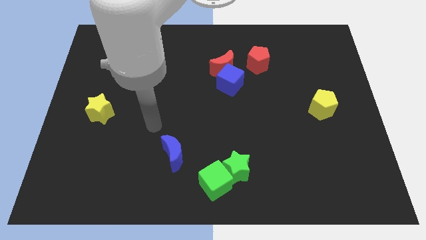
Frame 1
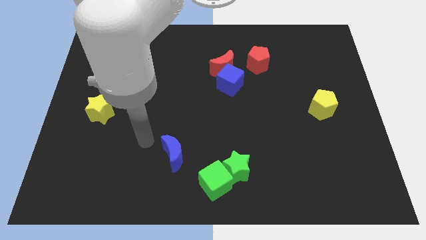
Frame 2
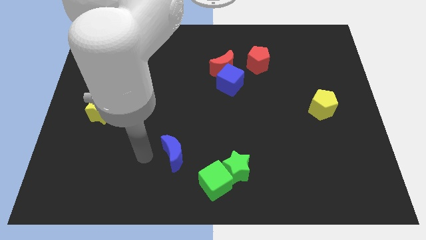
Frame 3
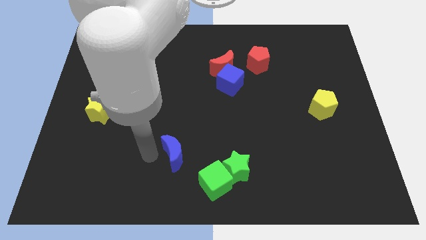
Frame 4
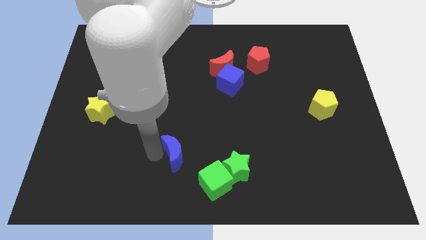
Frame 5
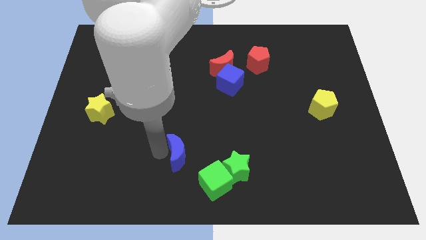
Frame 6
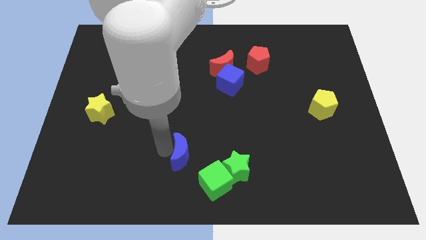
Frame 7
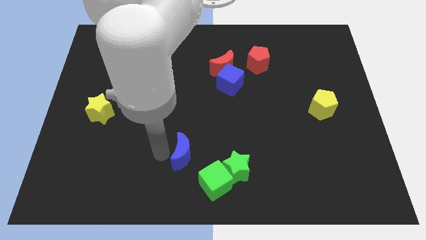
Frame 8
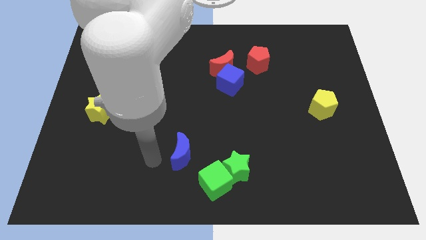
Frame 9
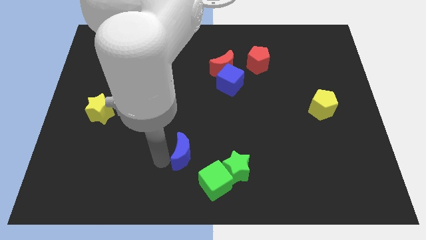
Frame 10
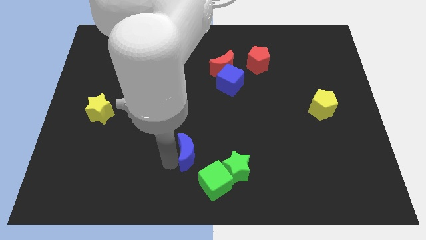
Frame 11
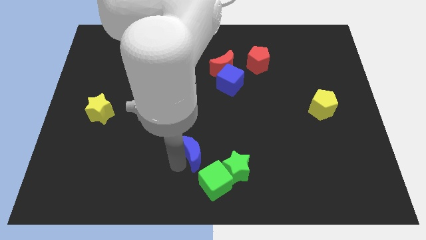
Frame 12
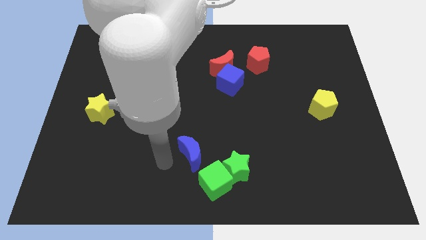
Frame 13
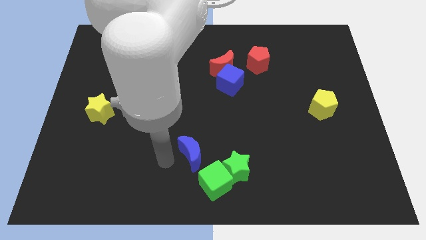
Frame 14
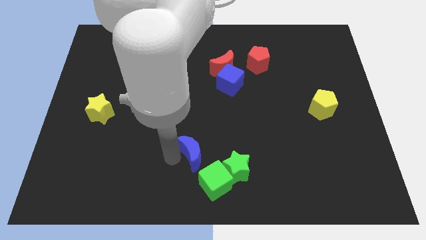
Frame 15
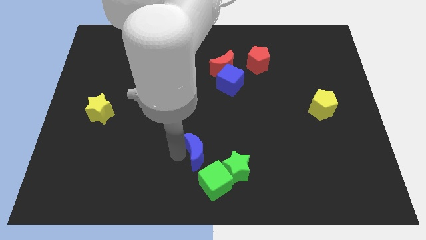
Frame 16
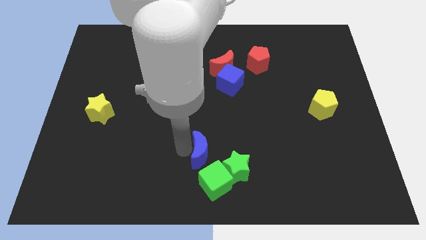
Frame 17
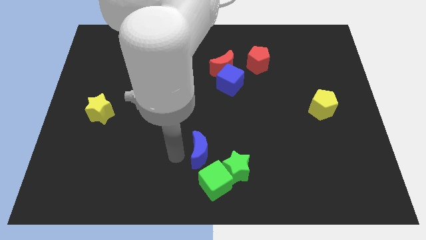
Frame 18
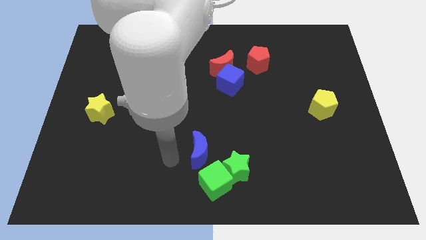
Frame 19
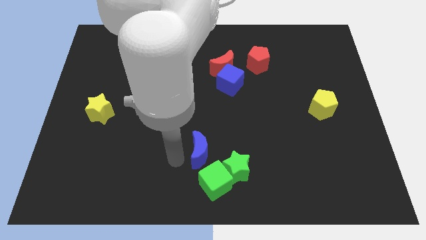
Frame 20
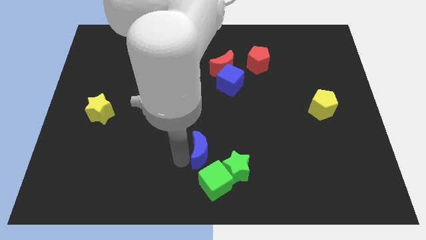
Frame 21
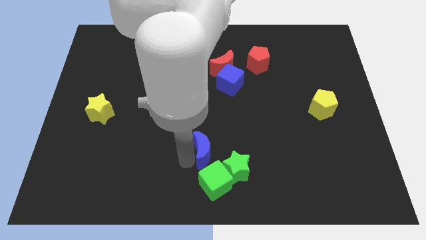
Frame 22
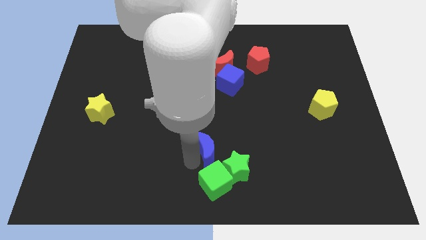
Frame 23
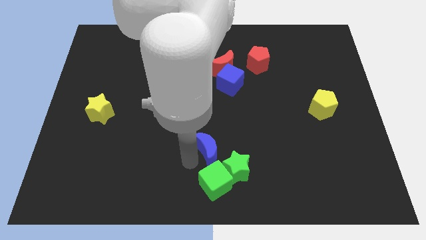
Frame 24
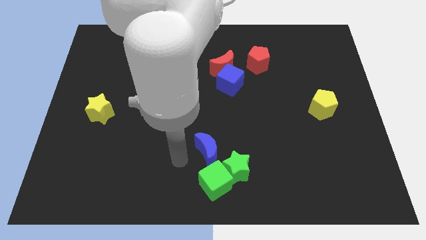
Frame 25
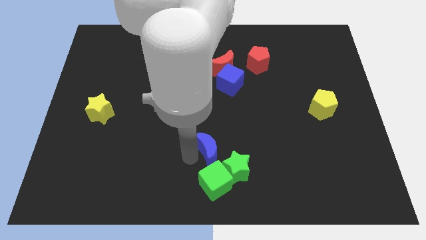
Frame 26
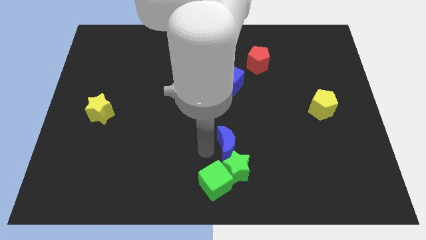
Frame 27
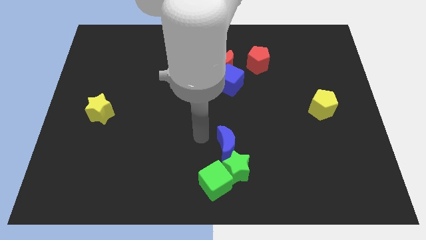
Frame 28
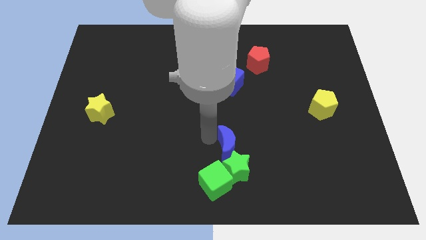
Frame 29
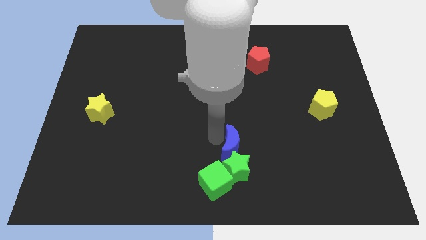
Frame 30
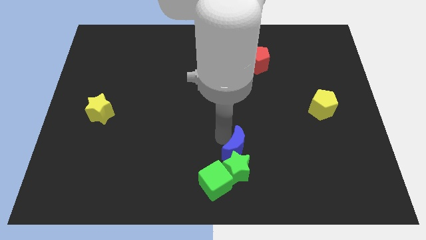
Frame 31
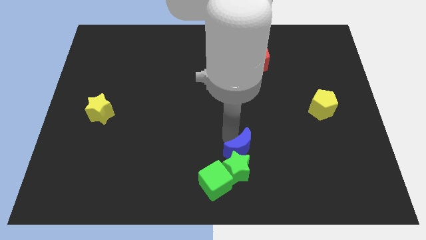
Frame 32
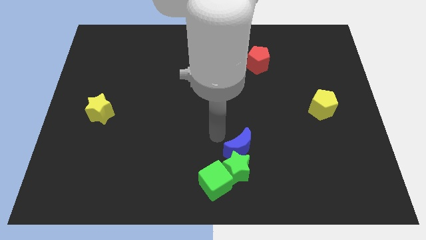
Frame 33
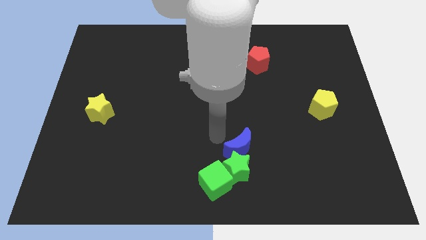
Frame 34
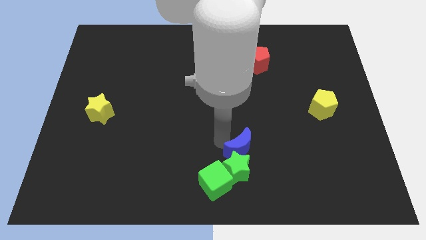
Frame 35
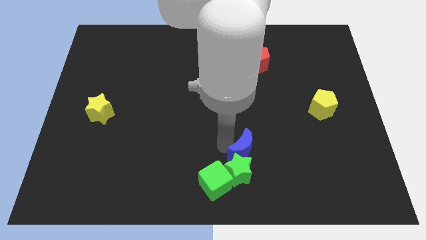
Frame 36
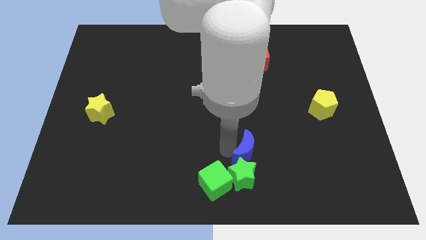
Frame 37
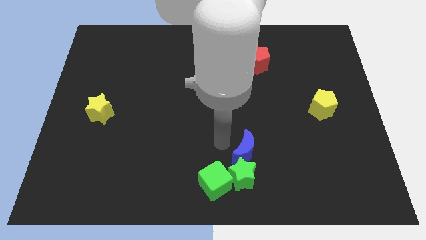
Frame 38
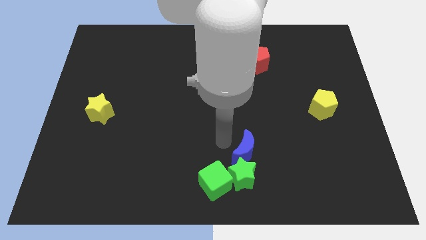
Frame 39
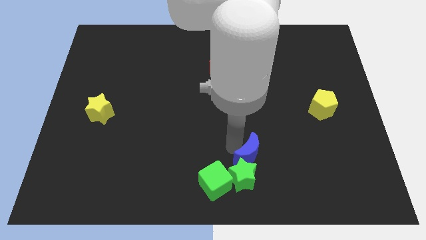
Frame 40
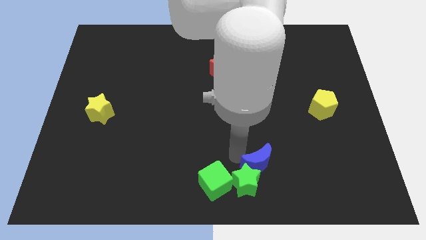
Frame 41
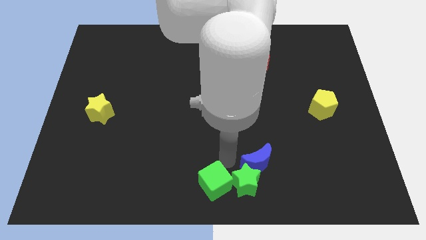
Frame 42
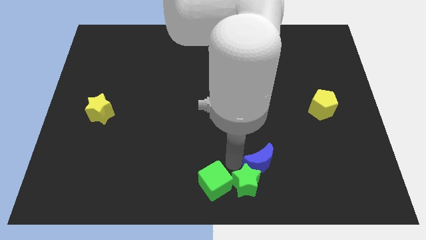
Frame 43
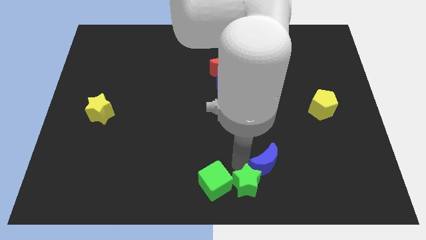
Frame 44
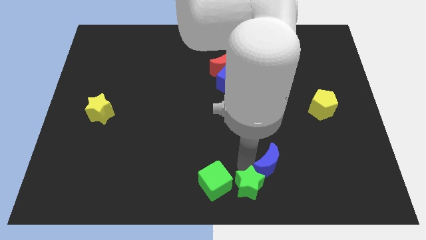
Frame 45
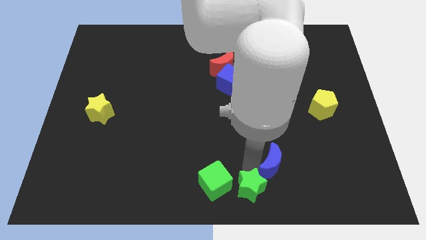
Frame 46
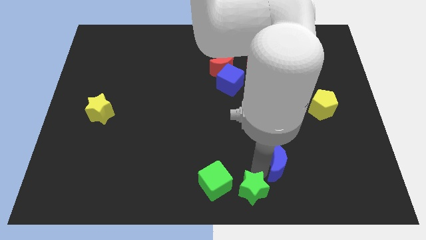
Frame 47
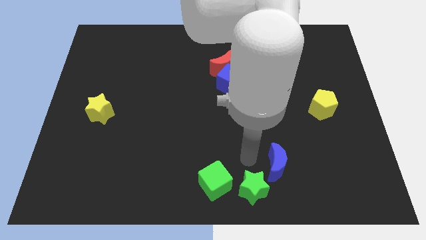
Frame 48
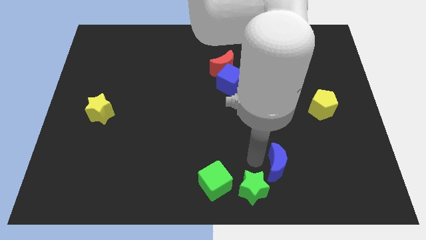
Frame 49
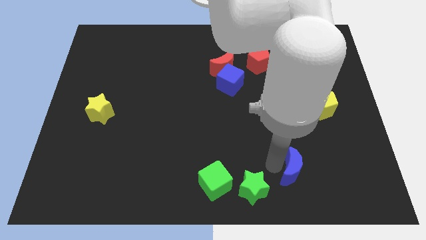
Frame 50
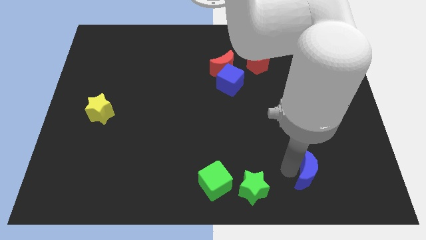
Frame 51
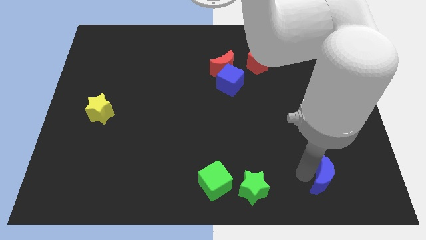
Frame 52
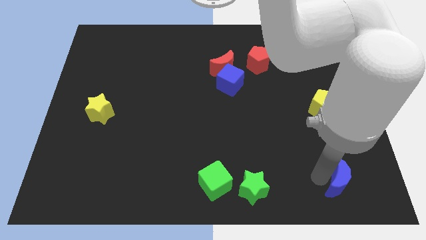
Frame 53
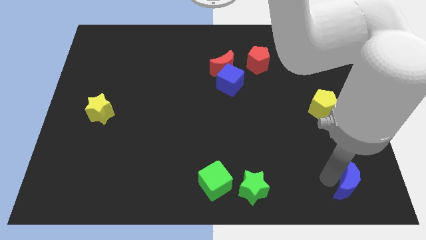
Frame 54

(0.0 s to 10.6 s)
push the blue moon to the bottom right of the board

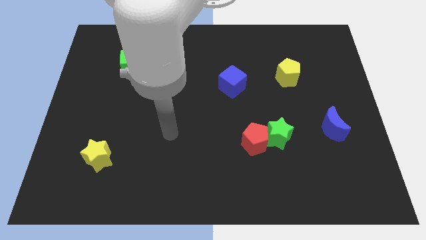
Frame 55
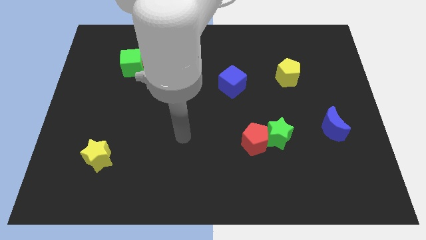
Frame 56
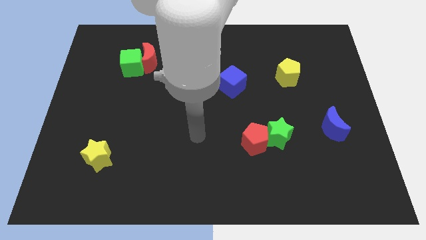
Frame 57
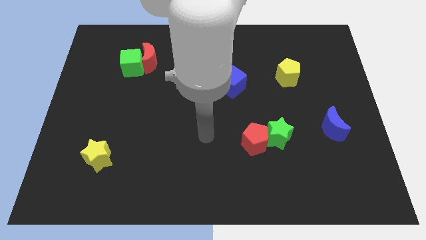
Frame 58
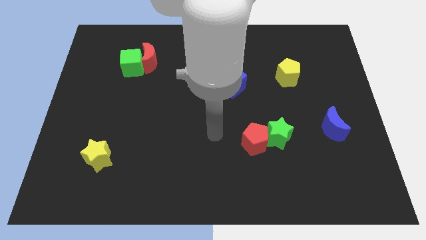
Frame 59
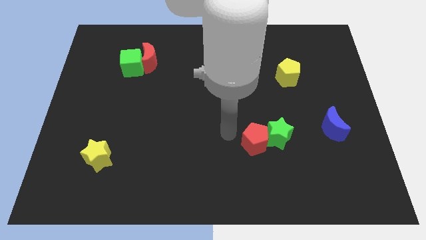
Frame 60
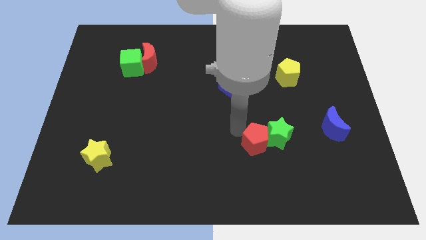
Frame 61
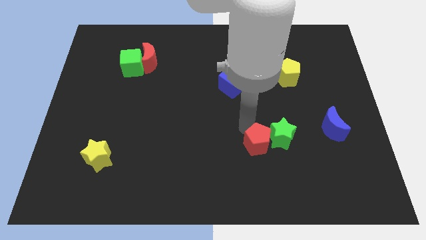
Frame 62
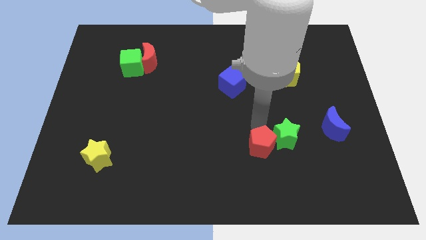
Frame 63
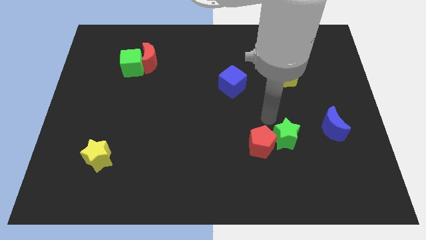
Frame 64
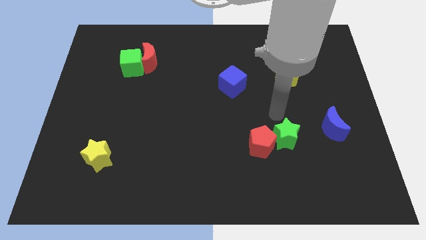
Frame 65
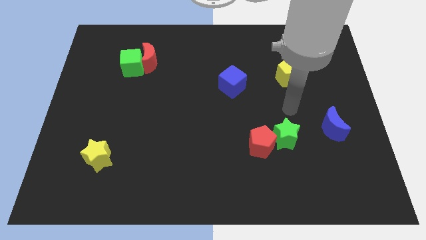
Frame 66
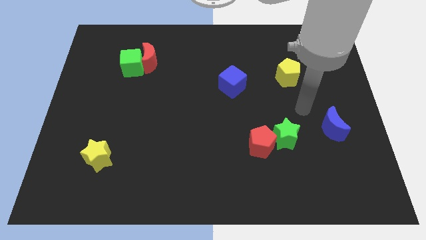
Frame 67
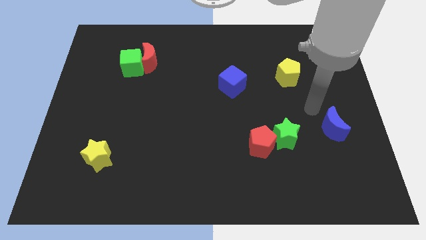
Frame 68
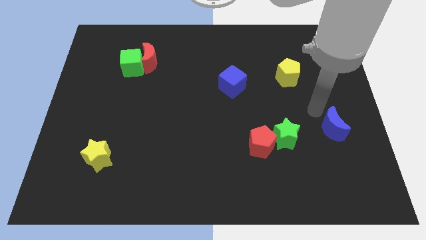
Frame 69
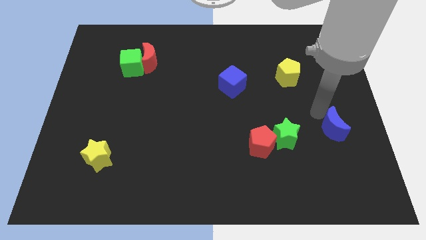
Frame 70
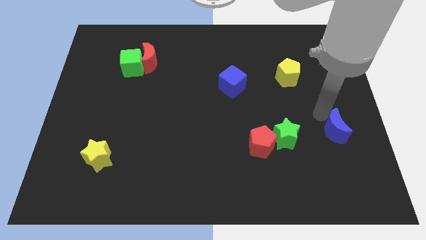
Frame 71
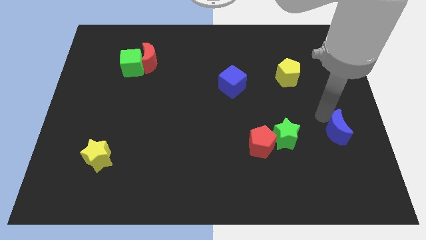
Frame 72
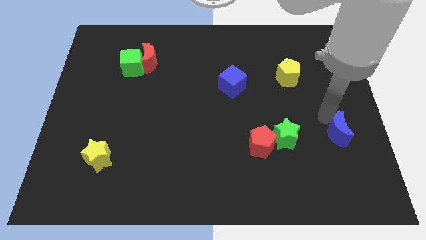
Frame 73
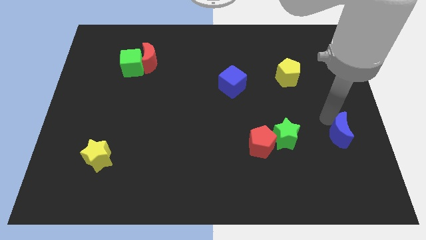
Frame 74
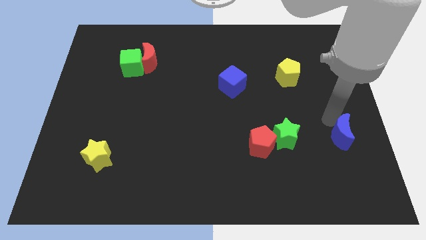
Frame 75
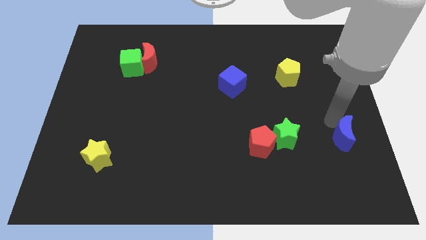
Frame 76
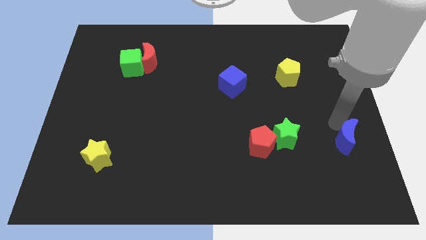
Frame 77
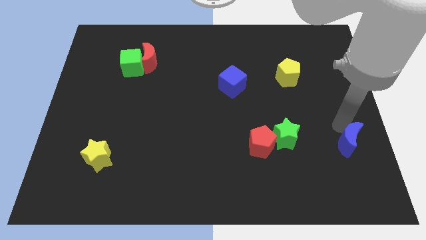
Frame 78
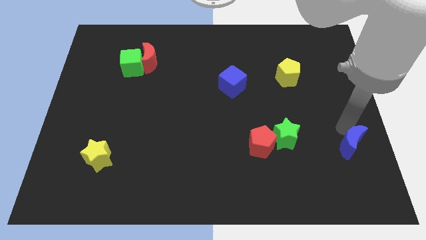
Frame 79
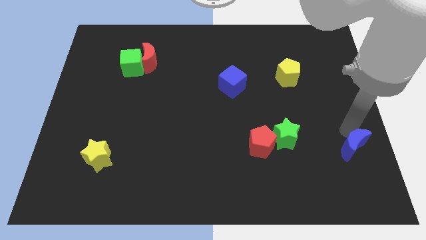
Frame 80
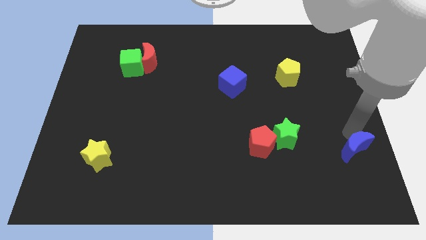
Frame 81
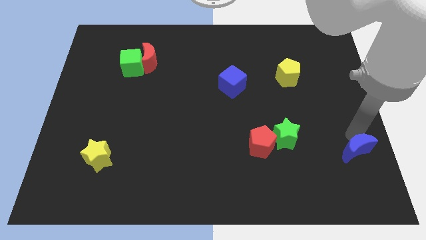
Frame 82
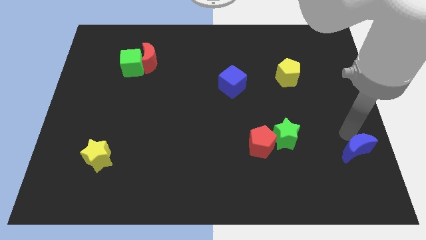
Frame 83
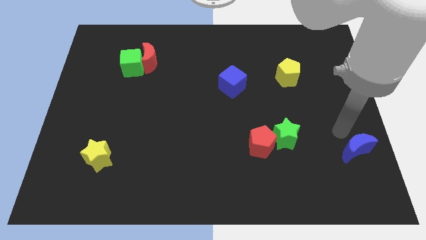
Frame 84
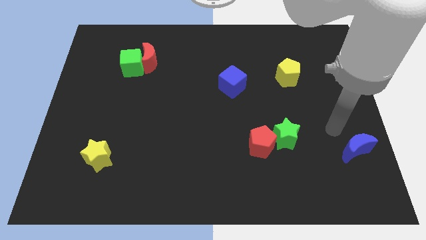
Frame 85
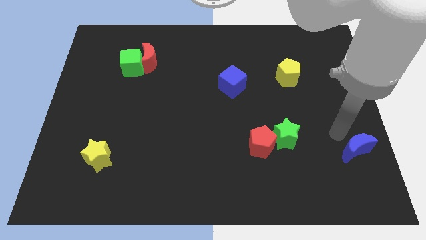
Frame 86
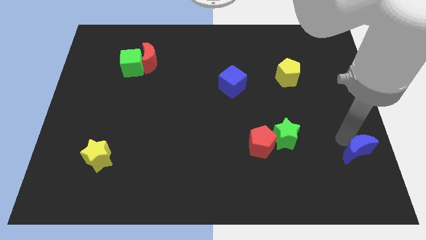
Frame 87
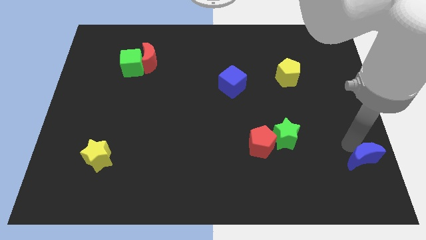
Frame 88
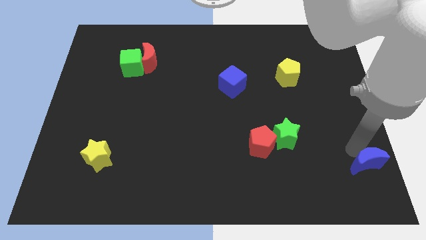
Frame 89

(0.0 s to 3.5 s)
slide the blue moon to the lower right corner
